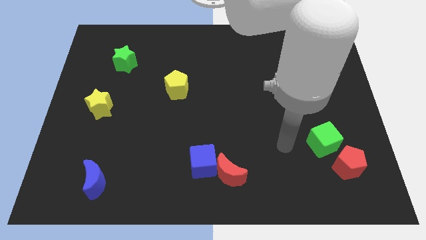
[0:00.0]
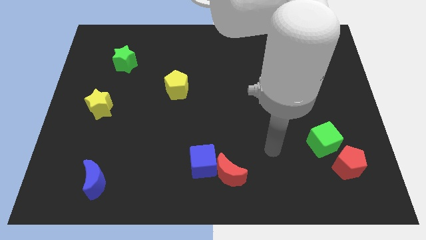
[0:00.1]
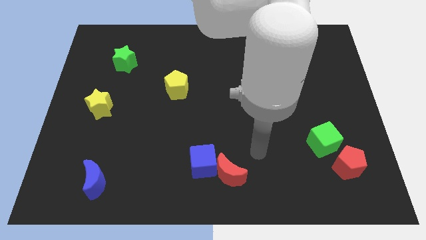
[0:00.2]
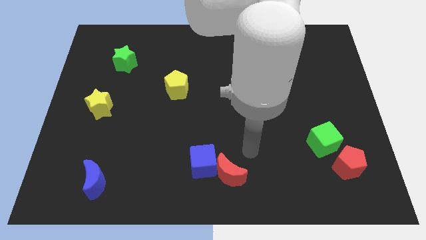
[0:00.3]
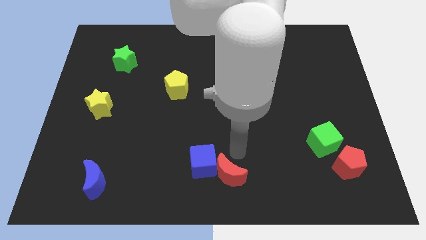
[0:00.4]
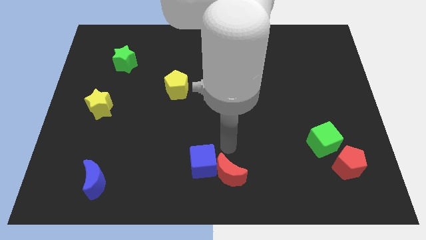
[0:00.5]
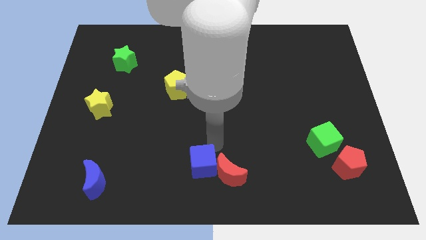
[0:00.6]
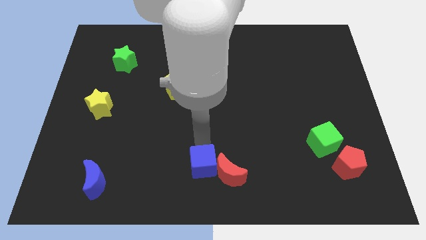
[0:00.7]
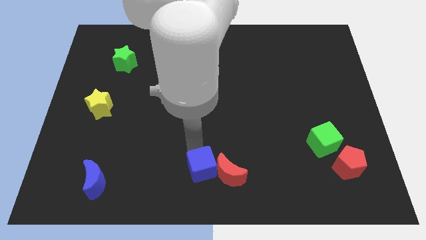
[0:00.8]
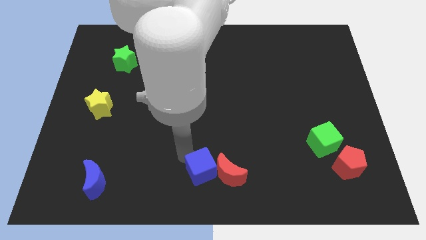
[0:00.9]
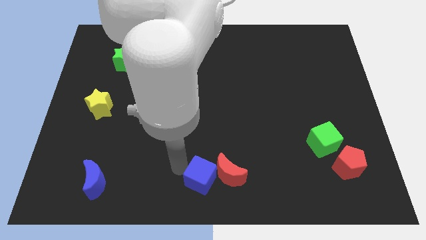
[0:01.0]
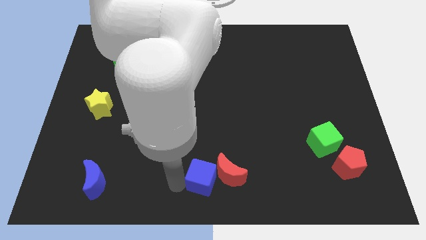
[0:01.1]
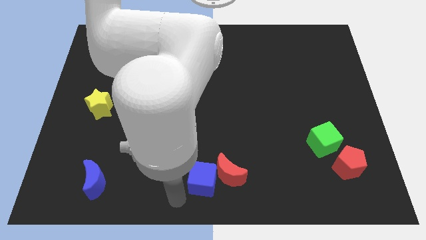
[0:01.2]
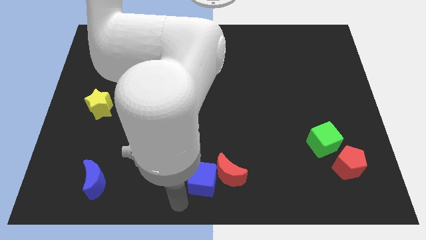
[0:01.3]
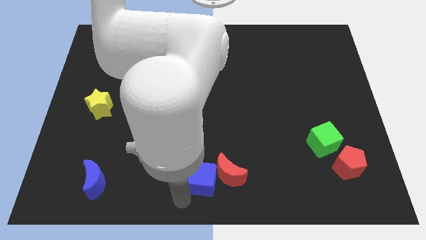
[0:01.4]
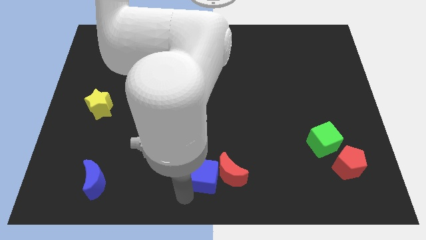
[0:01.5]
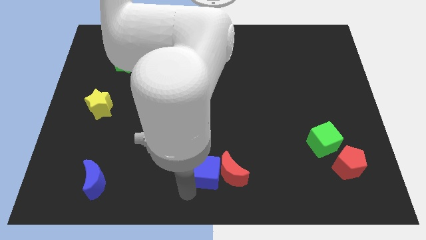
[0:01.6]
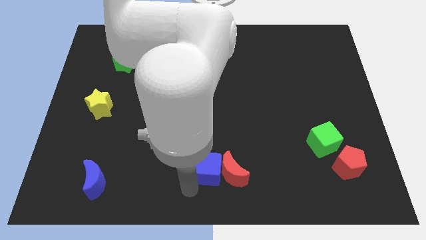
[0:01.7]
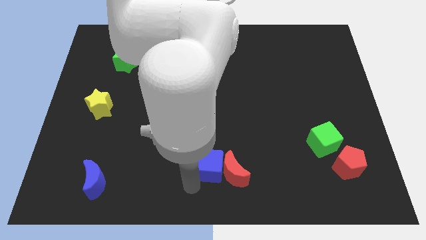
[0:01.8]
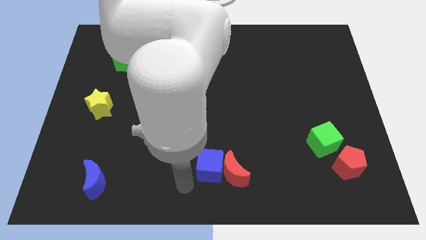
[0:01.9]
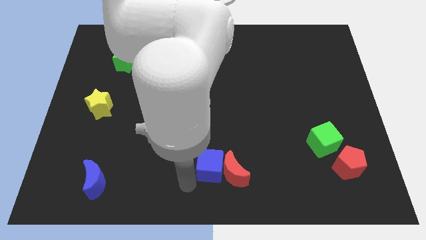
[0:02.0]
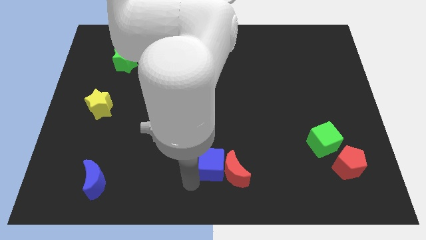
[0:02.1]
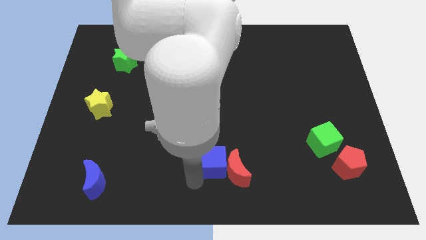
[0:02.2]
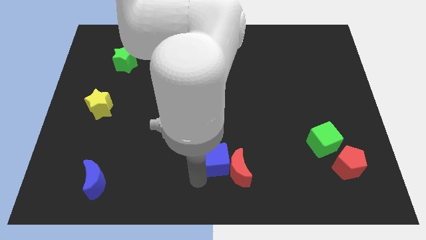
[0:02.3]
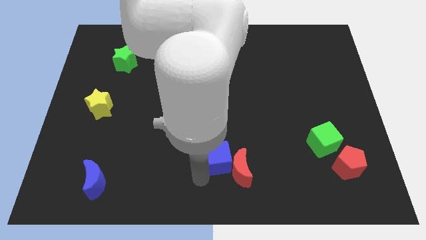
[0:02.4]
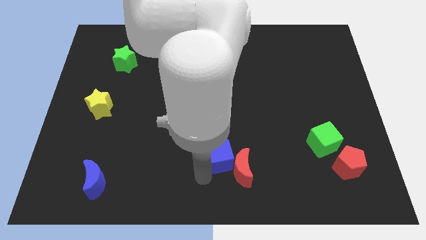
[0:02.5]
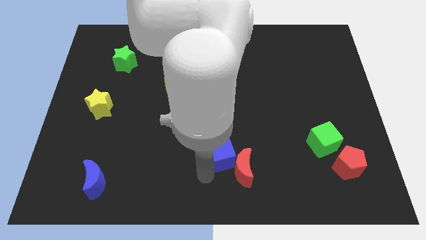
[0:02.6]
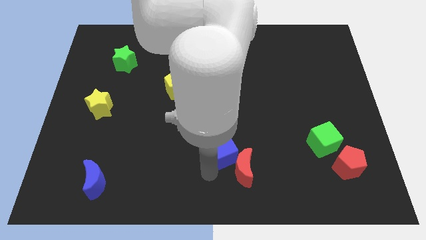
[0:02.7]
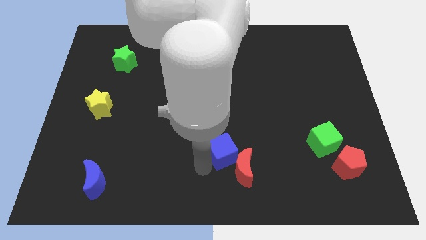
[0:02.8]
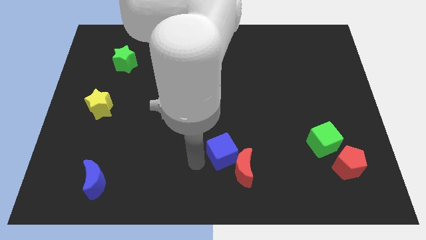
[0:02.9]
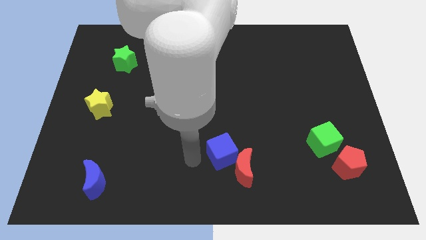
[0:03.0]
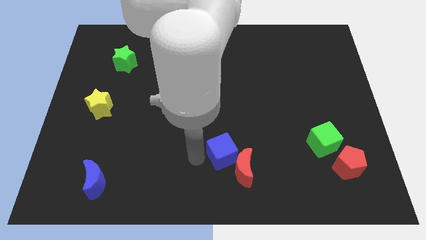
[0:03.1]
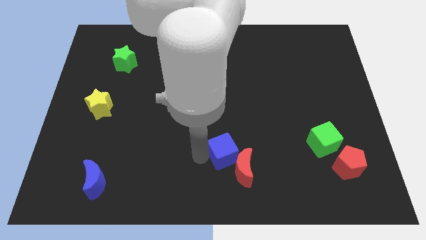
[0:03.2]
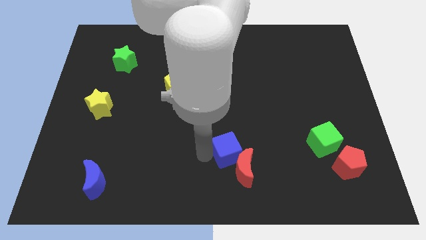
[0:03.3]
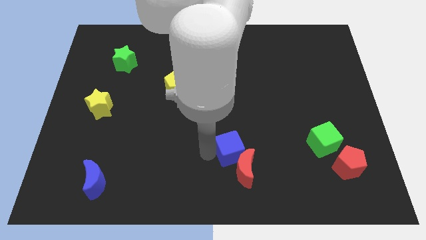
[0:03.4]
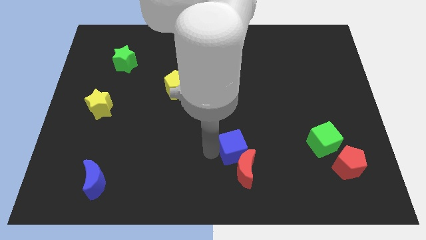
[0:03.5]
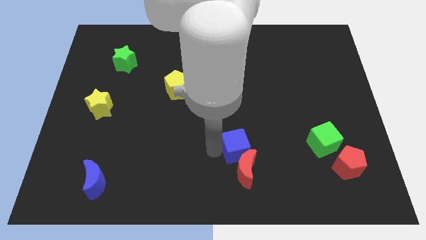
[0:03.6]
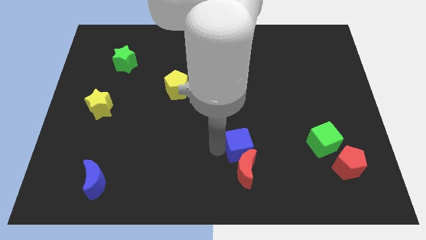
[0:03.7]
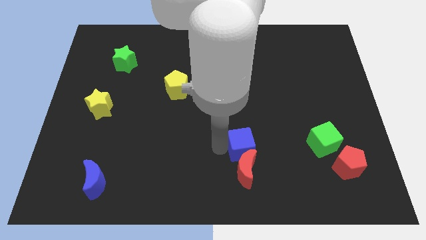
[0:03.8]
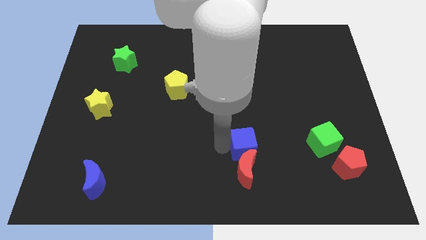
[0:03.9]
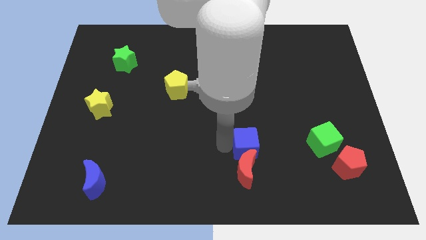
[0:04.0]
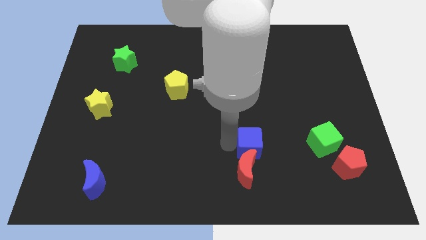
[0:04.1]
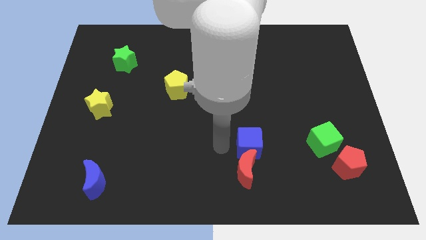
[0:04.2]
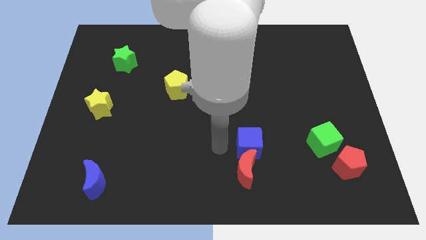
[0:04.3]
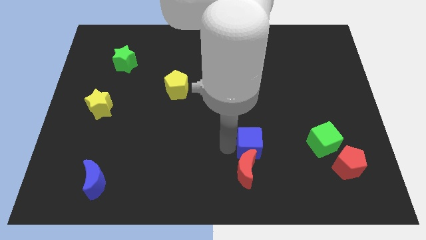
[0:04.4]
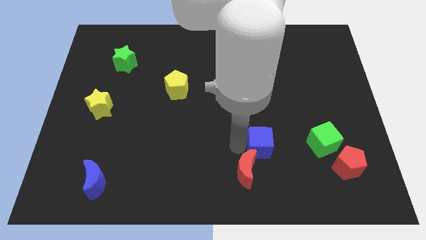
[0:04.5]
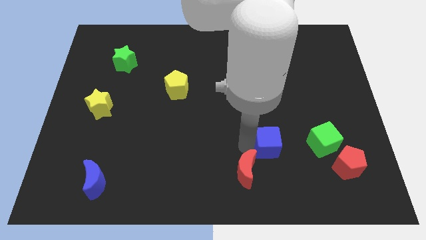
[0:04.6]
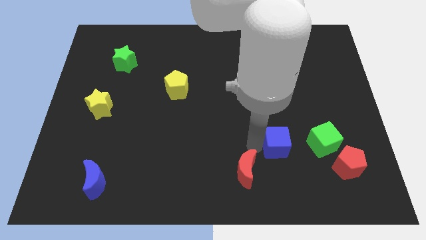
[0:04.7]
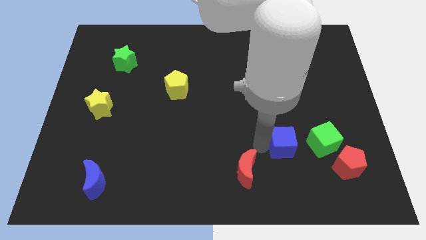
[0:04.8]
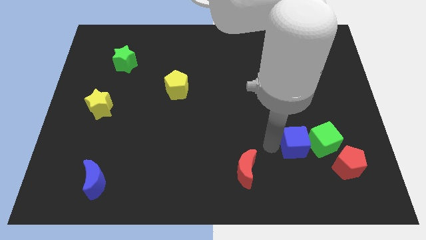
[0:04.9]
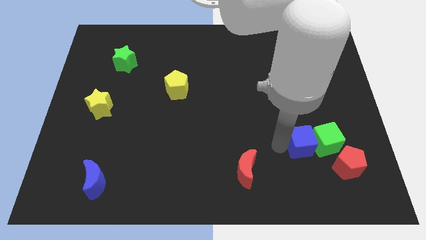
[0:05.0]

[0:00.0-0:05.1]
move the blue cube towards the green cube

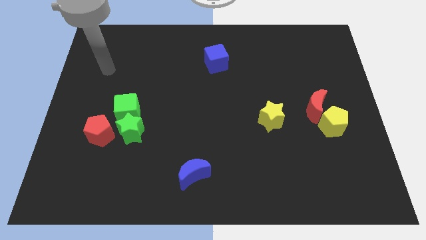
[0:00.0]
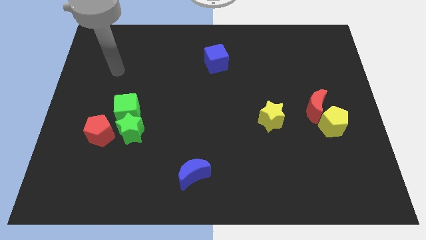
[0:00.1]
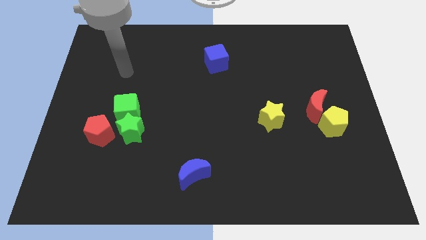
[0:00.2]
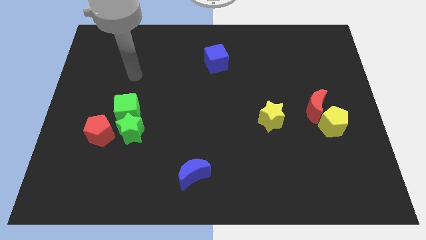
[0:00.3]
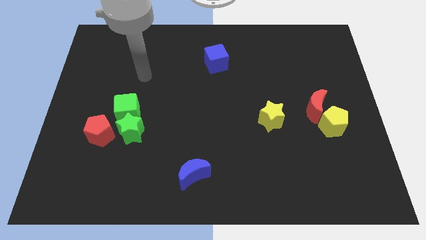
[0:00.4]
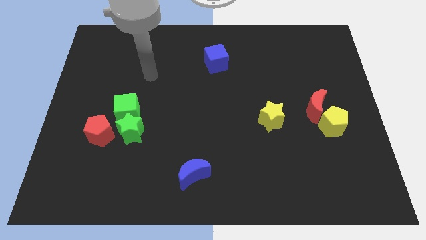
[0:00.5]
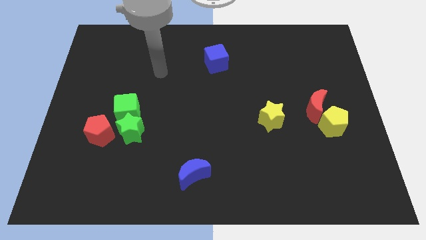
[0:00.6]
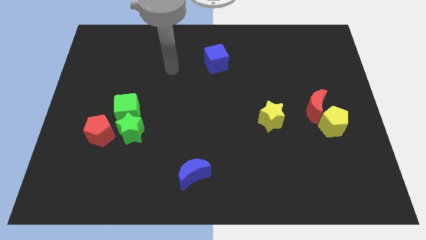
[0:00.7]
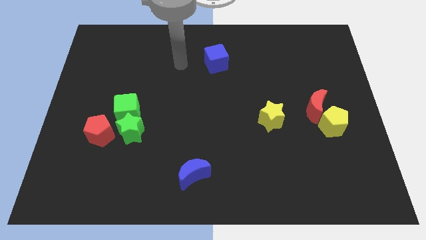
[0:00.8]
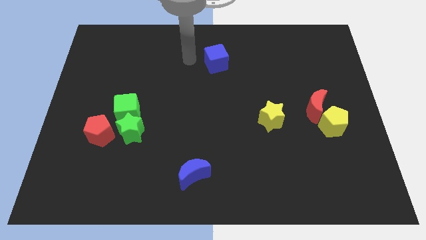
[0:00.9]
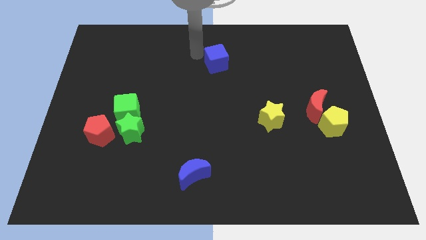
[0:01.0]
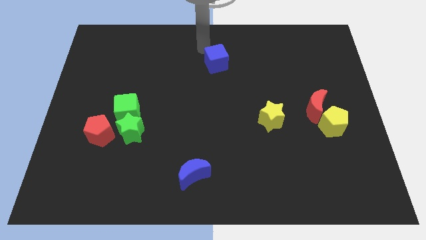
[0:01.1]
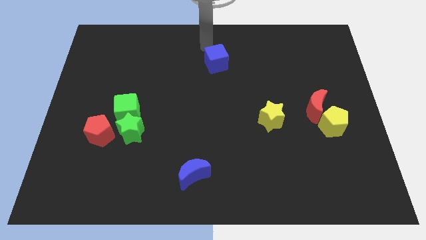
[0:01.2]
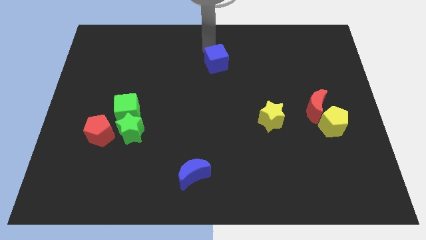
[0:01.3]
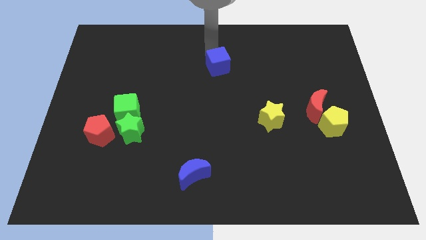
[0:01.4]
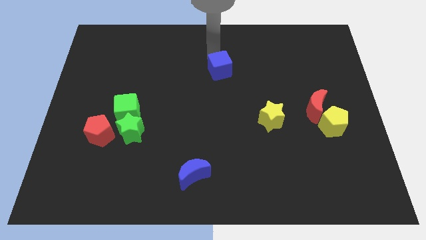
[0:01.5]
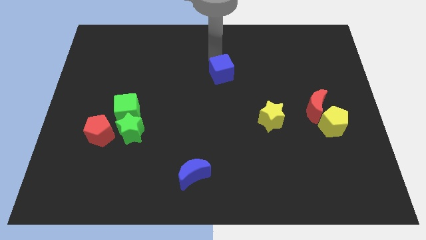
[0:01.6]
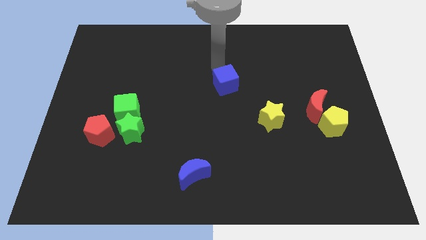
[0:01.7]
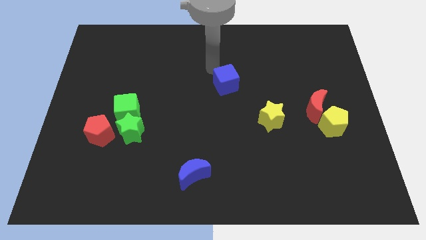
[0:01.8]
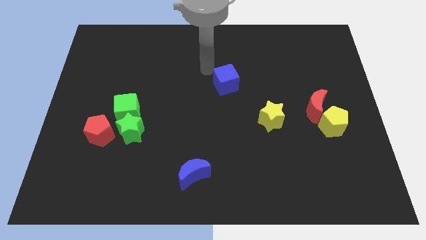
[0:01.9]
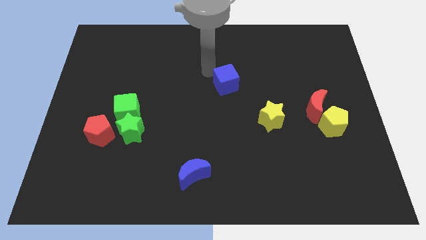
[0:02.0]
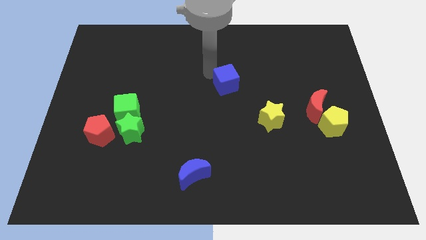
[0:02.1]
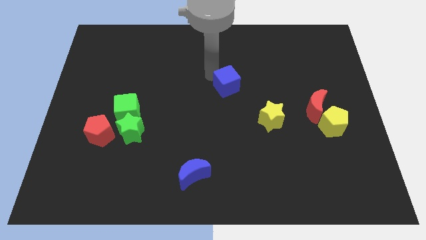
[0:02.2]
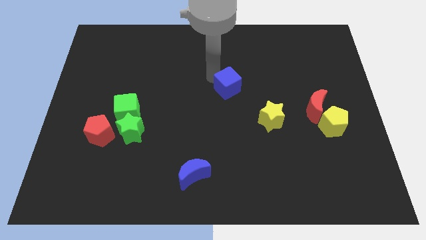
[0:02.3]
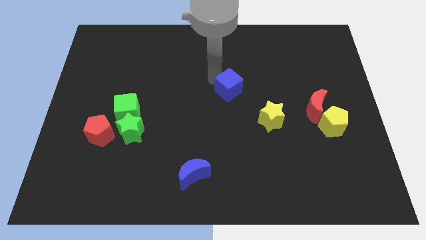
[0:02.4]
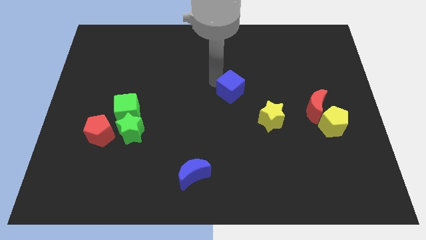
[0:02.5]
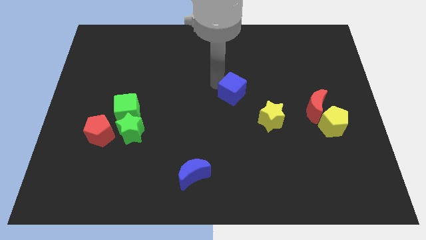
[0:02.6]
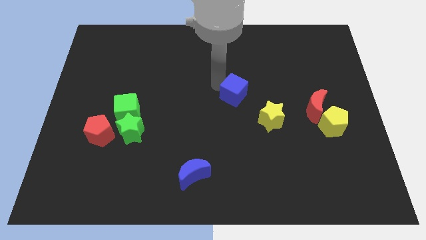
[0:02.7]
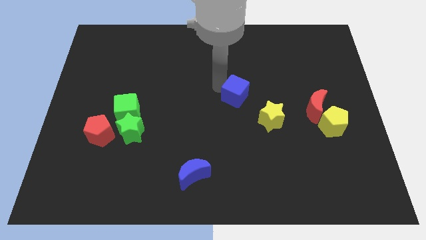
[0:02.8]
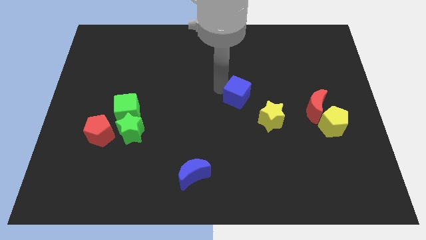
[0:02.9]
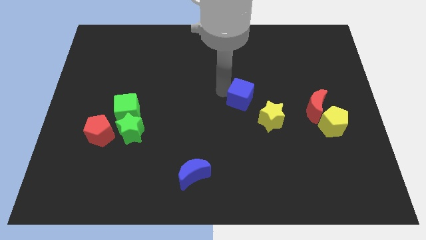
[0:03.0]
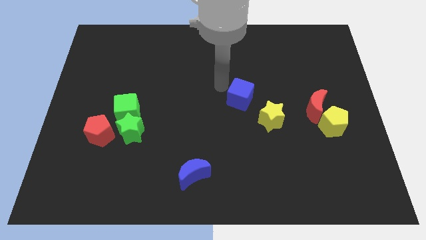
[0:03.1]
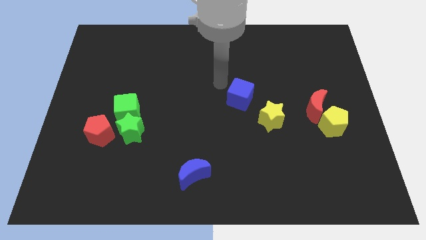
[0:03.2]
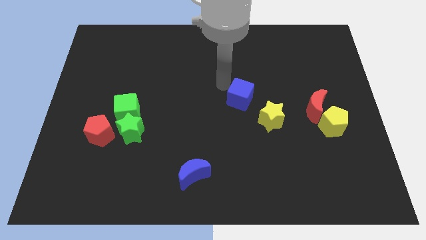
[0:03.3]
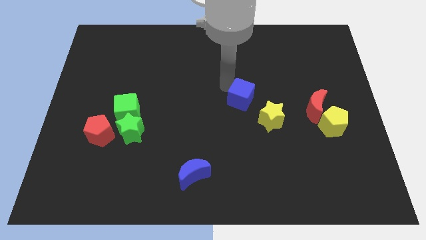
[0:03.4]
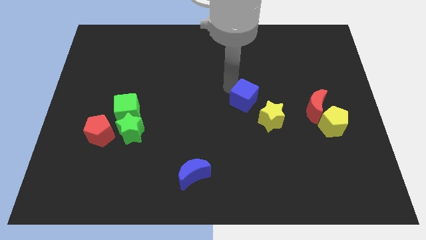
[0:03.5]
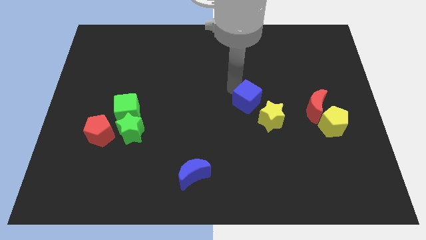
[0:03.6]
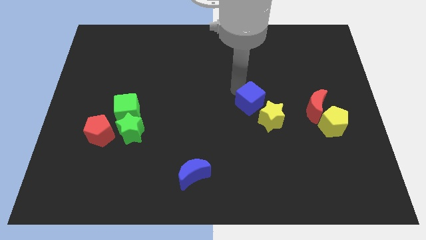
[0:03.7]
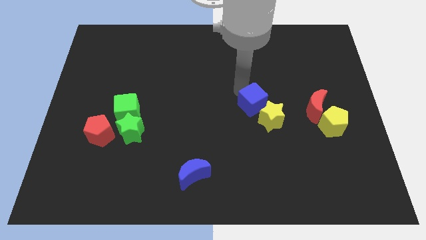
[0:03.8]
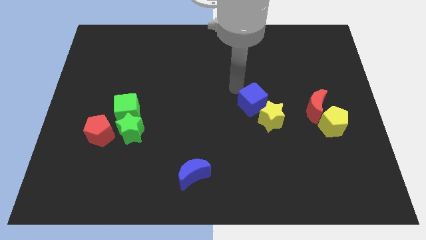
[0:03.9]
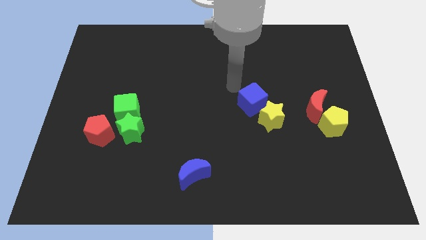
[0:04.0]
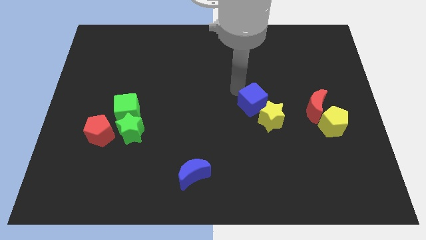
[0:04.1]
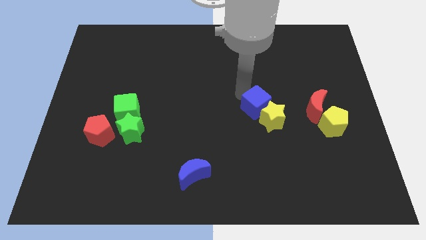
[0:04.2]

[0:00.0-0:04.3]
push the blue cube close to the yellow star
